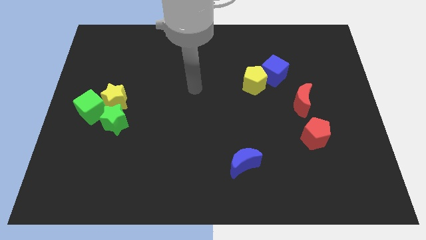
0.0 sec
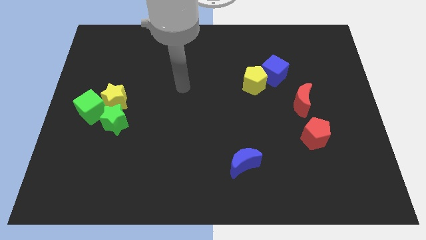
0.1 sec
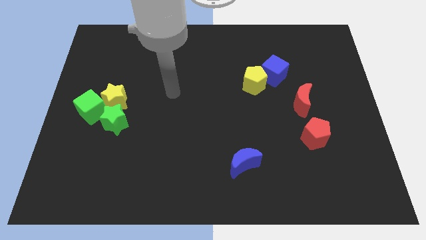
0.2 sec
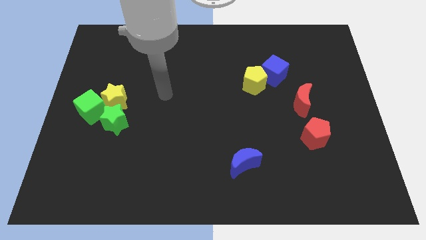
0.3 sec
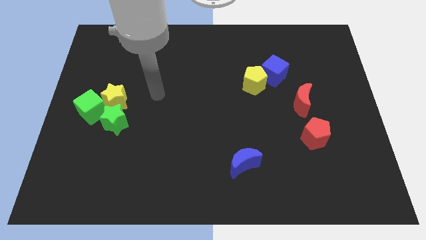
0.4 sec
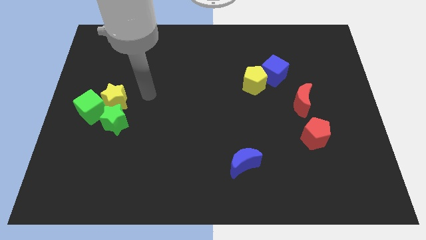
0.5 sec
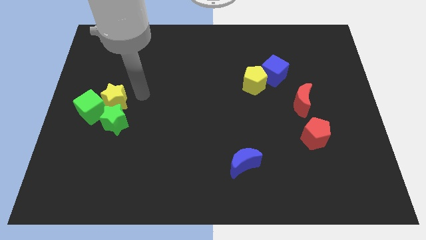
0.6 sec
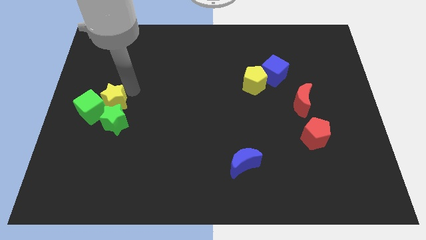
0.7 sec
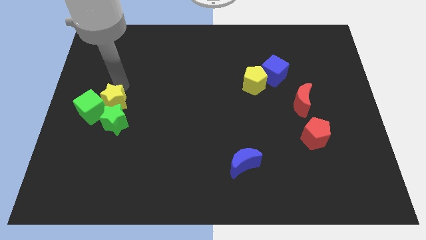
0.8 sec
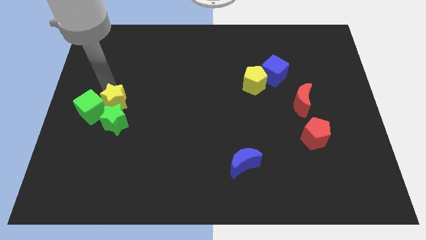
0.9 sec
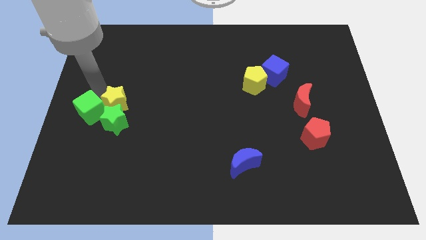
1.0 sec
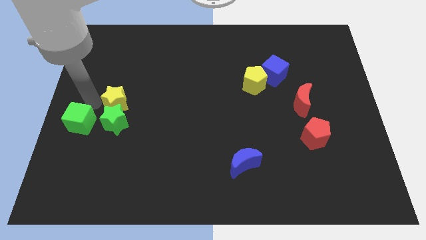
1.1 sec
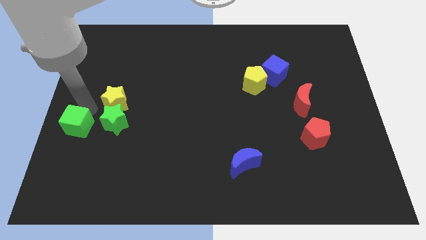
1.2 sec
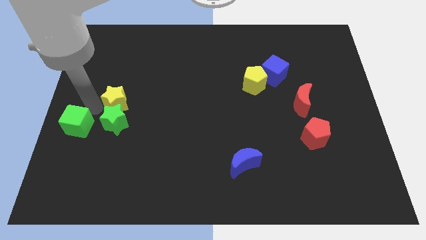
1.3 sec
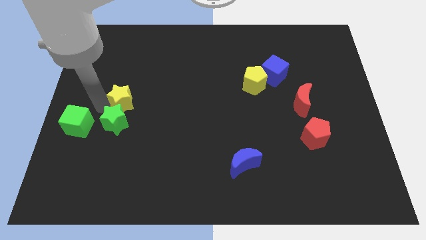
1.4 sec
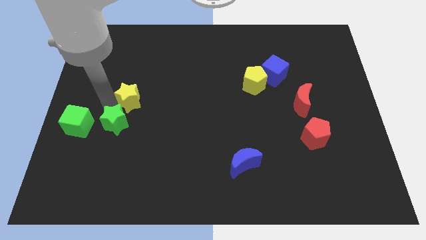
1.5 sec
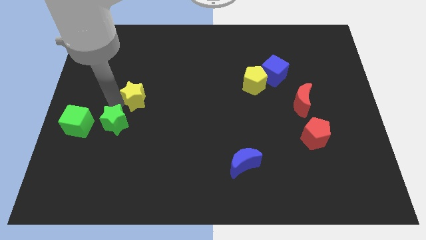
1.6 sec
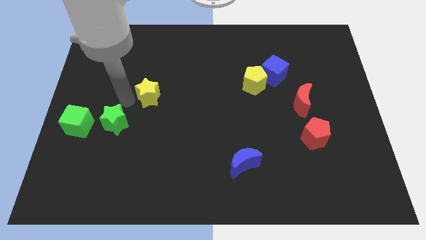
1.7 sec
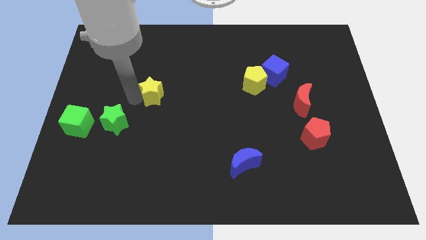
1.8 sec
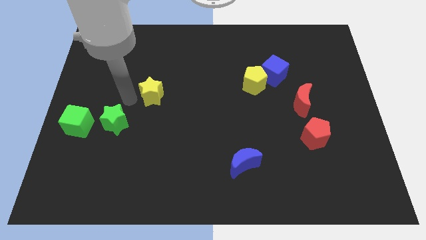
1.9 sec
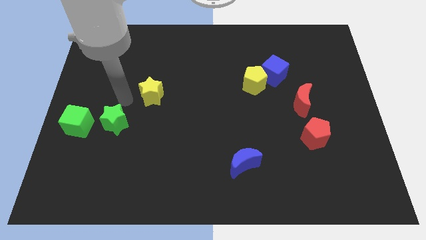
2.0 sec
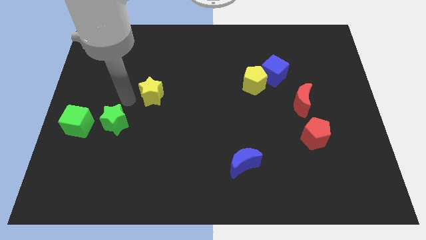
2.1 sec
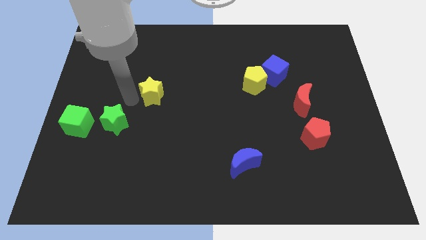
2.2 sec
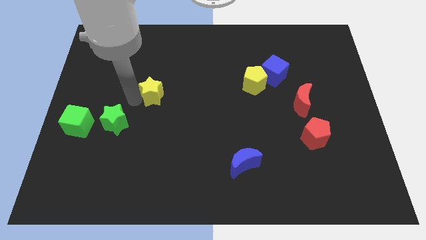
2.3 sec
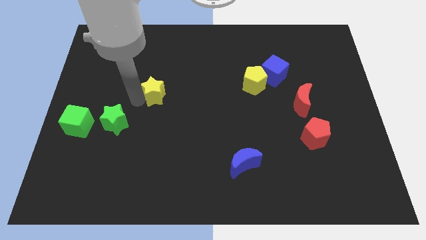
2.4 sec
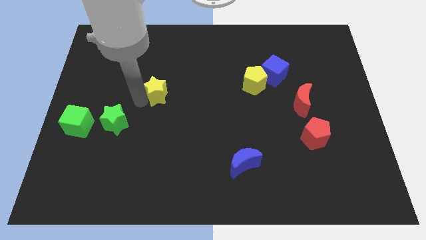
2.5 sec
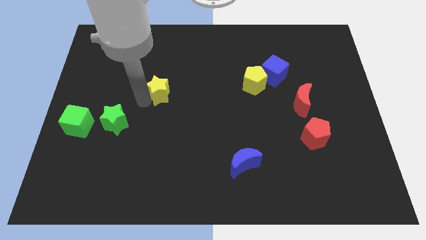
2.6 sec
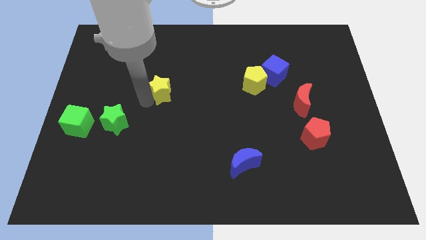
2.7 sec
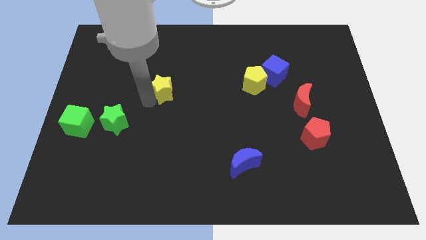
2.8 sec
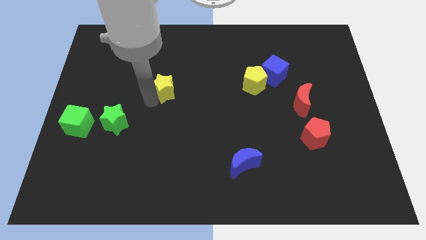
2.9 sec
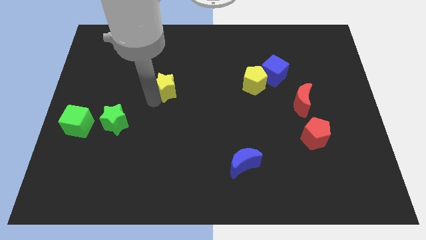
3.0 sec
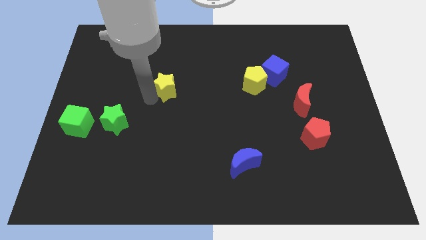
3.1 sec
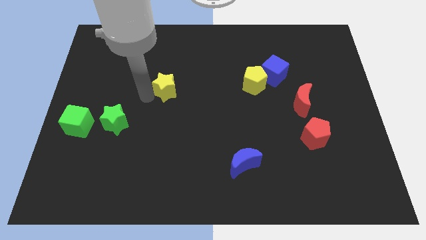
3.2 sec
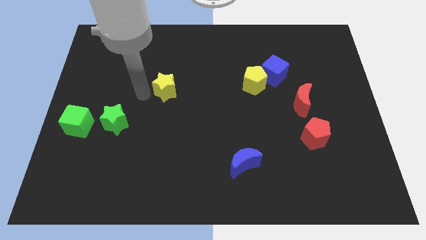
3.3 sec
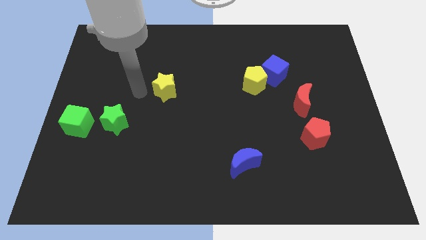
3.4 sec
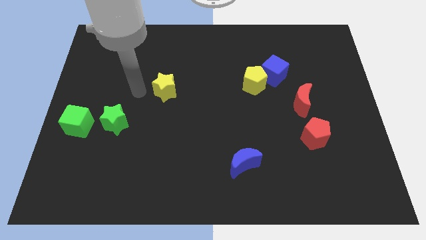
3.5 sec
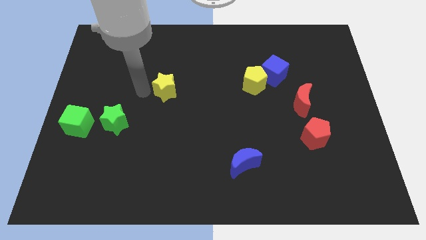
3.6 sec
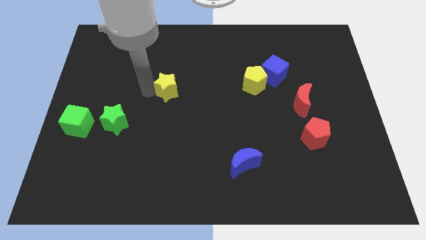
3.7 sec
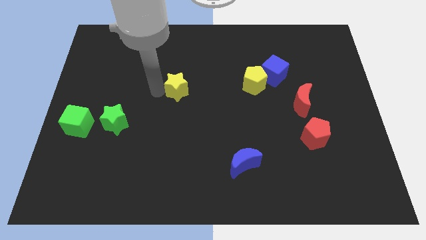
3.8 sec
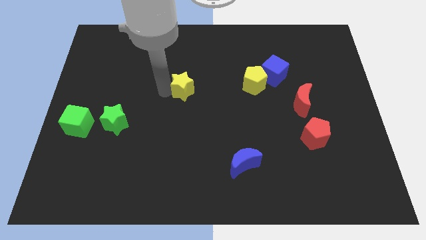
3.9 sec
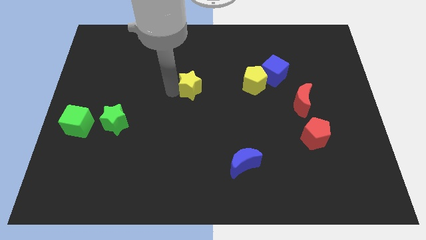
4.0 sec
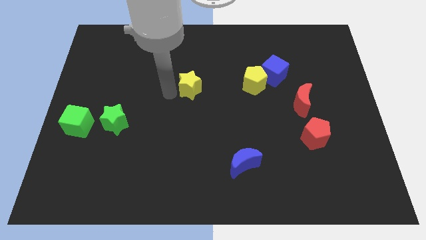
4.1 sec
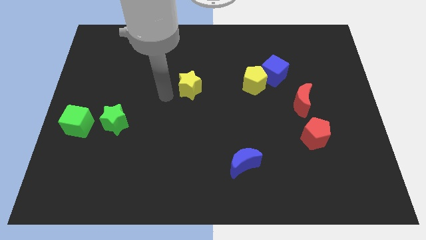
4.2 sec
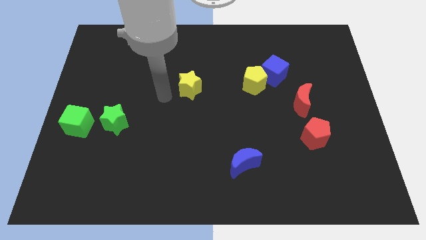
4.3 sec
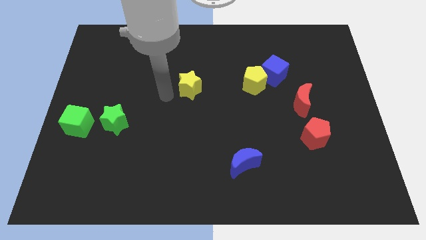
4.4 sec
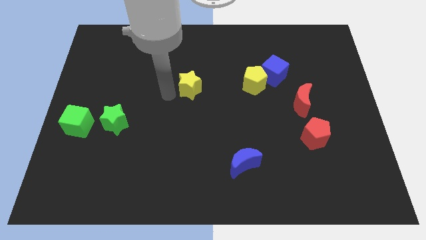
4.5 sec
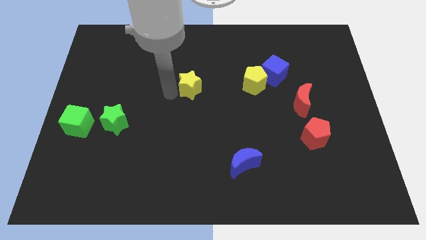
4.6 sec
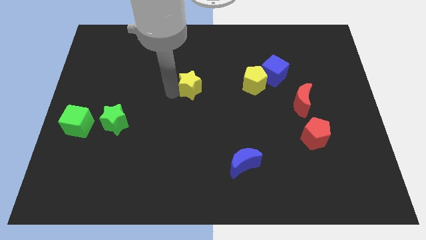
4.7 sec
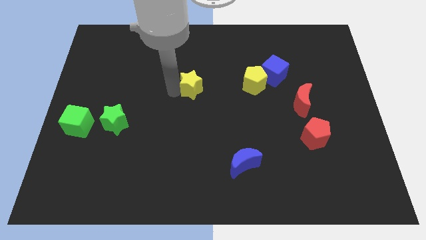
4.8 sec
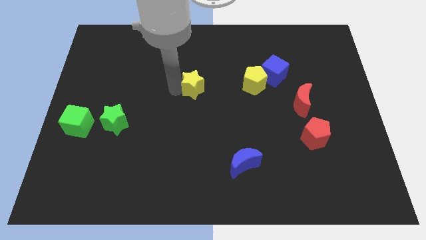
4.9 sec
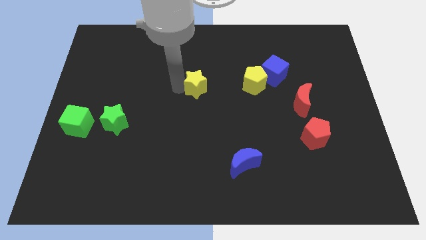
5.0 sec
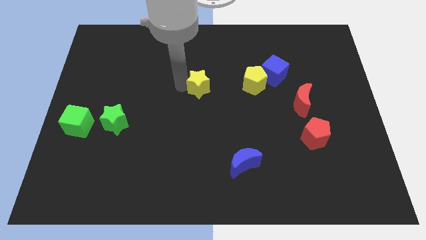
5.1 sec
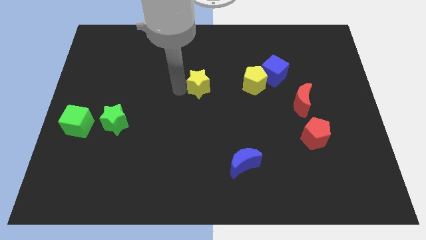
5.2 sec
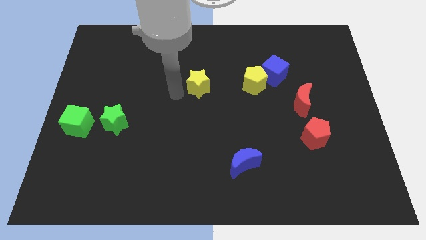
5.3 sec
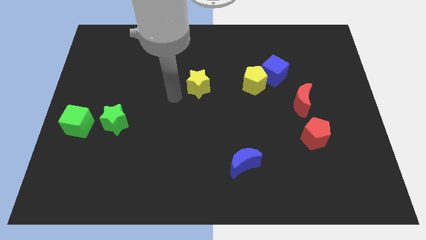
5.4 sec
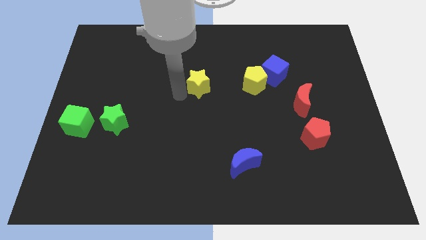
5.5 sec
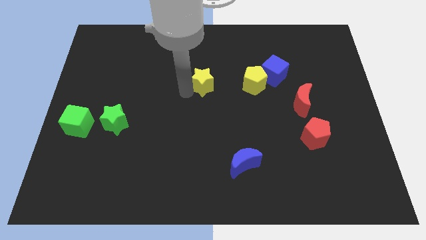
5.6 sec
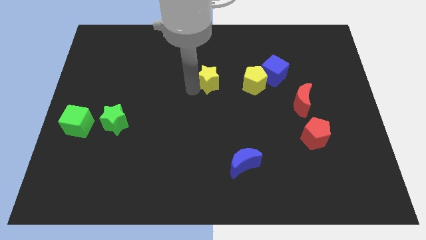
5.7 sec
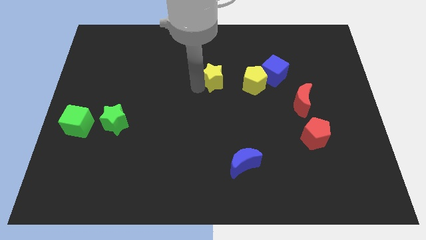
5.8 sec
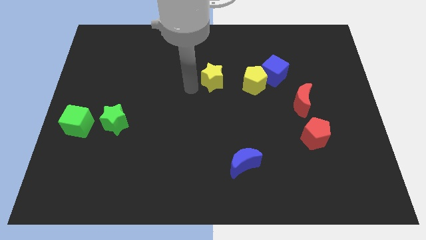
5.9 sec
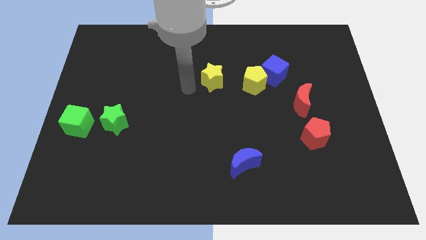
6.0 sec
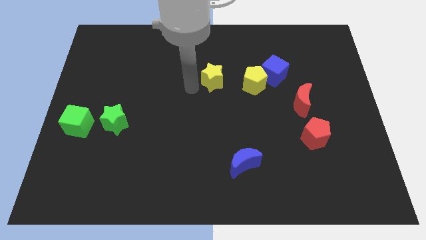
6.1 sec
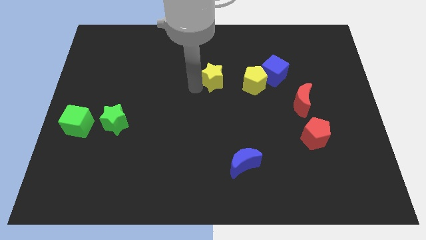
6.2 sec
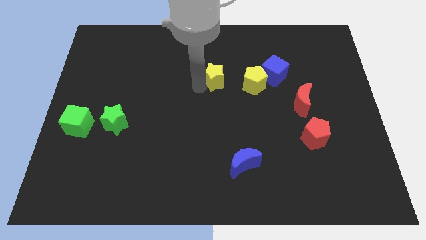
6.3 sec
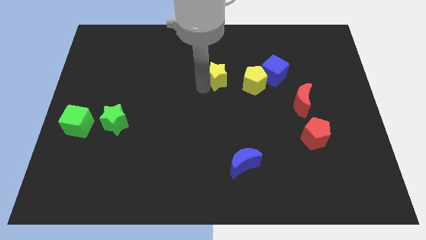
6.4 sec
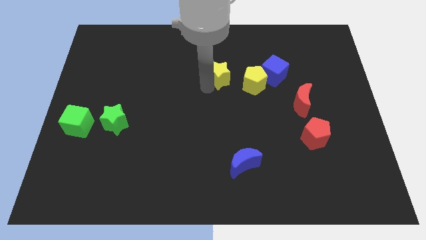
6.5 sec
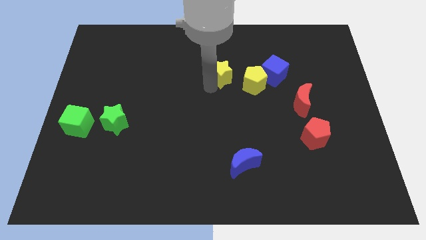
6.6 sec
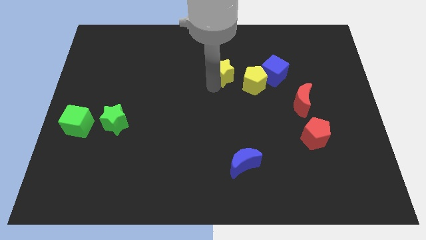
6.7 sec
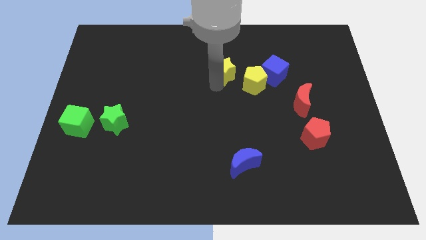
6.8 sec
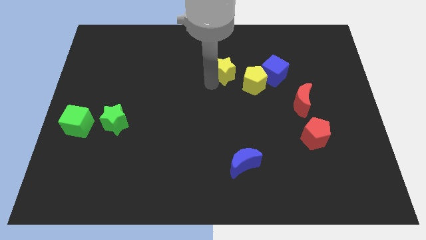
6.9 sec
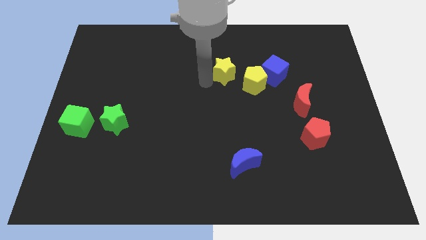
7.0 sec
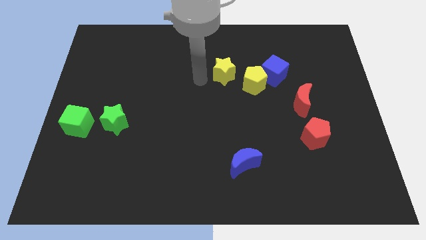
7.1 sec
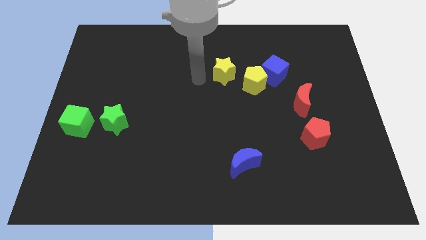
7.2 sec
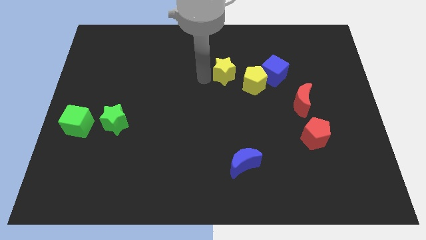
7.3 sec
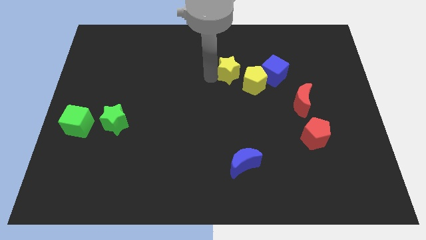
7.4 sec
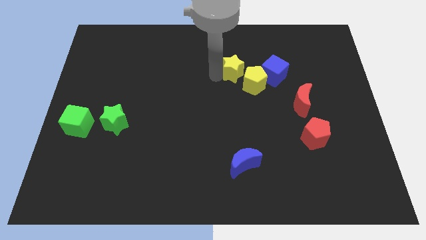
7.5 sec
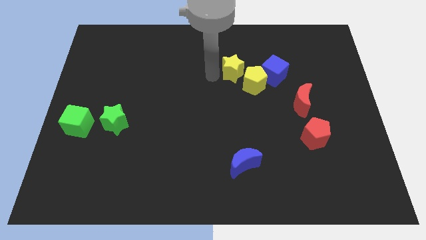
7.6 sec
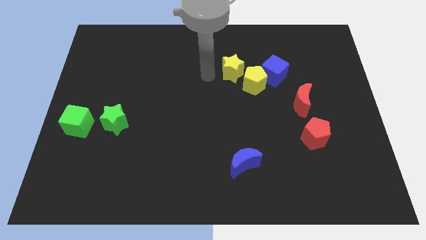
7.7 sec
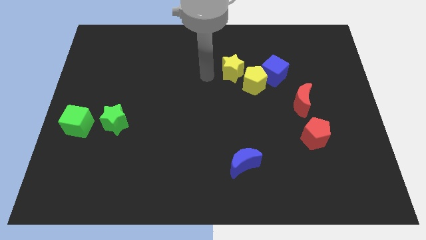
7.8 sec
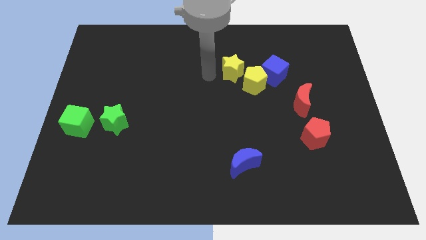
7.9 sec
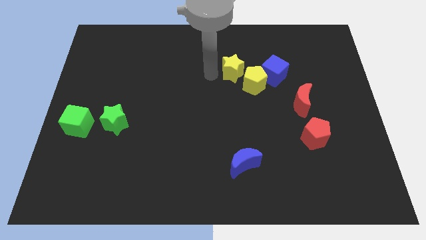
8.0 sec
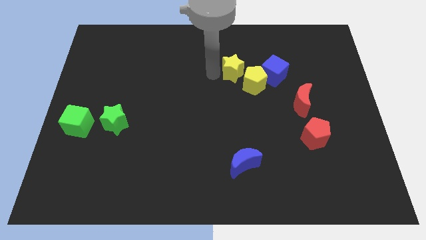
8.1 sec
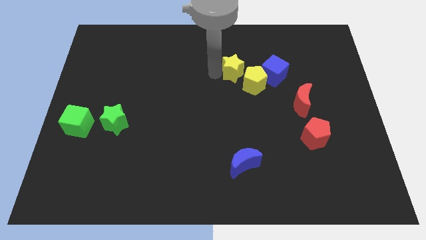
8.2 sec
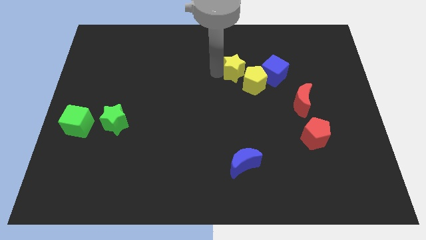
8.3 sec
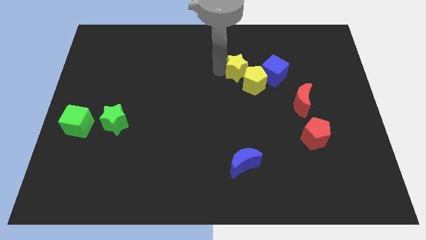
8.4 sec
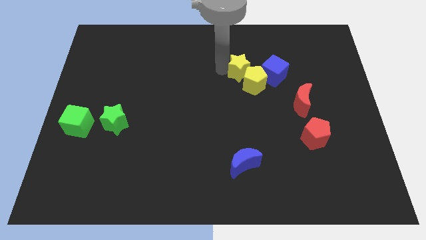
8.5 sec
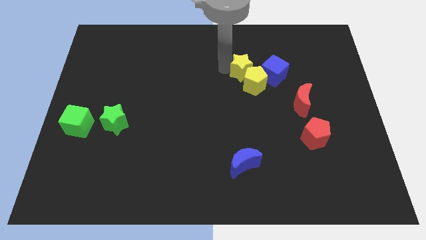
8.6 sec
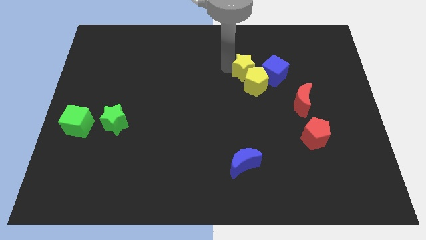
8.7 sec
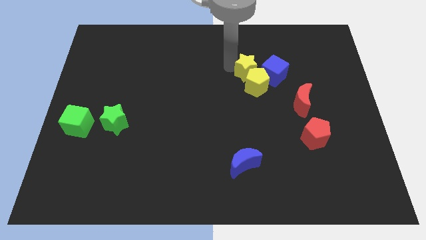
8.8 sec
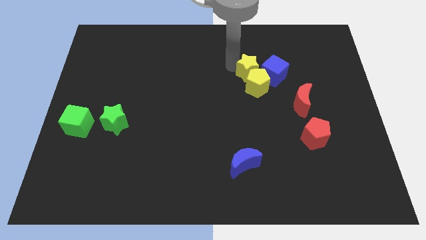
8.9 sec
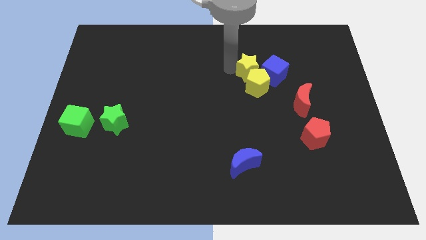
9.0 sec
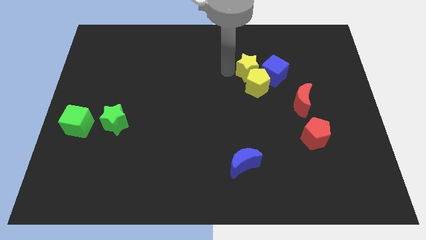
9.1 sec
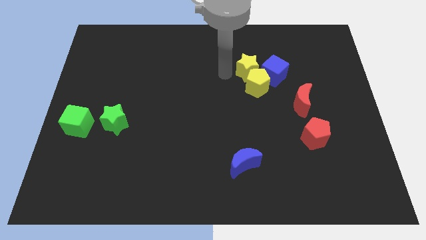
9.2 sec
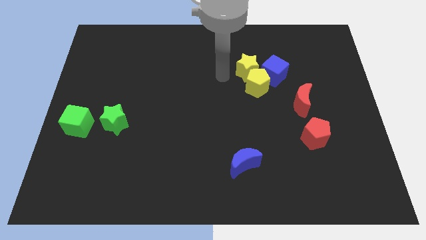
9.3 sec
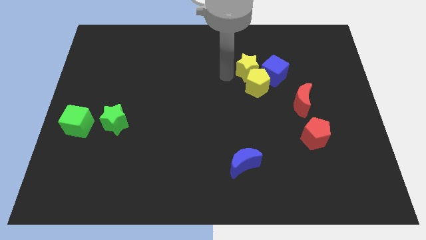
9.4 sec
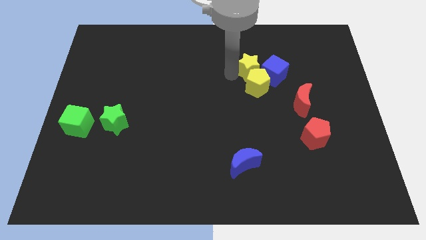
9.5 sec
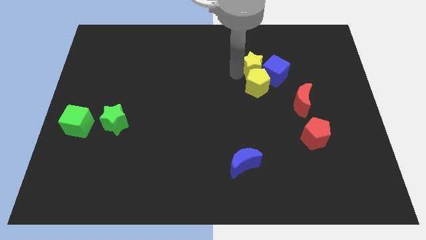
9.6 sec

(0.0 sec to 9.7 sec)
move the yellow star close to the blue cube
